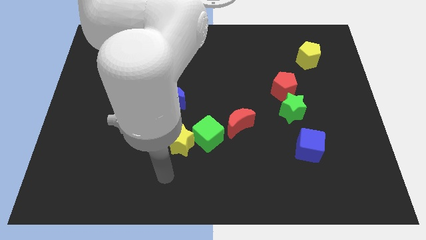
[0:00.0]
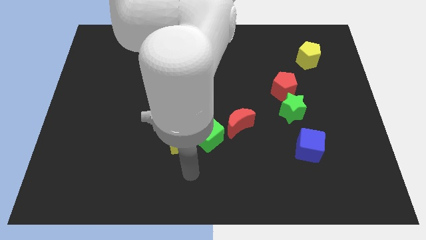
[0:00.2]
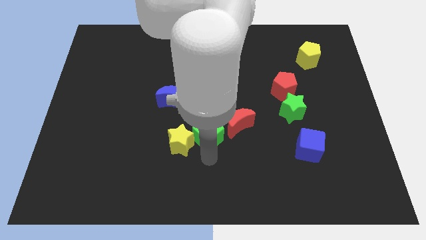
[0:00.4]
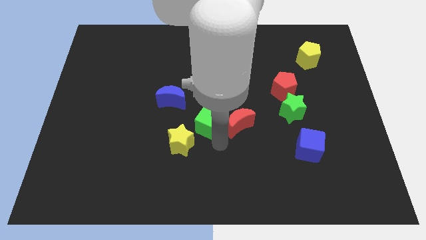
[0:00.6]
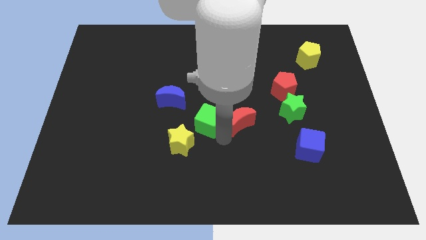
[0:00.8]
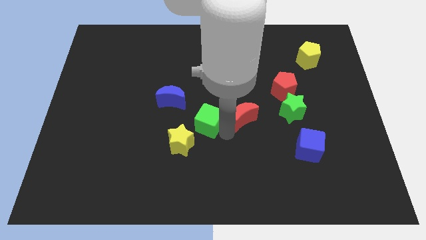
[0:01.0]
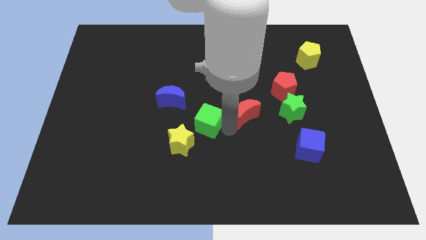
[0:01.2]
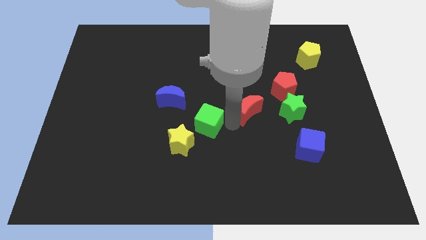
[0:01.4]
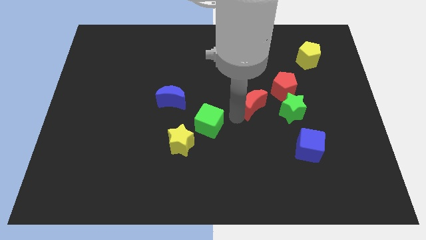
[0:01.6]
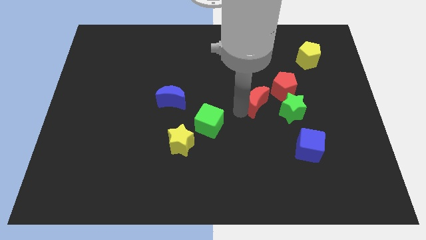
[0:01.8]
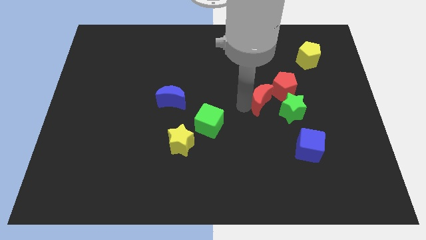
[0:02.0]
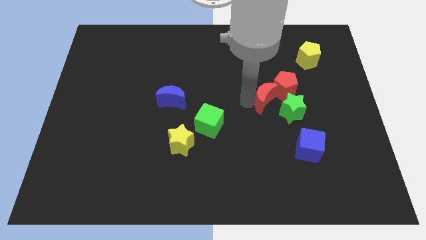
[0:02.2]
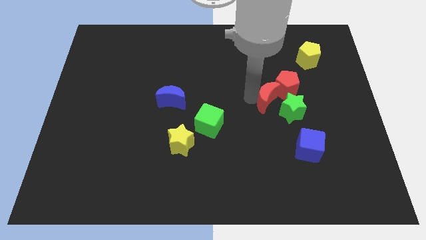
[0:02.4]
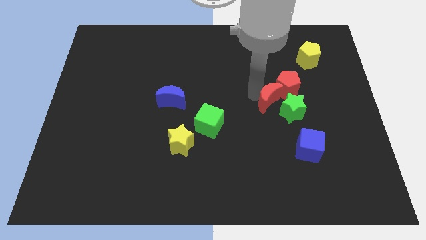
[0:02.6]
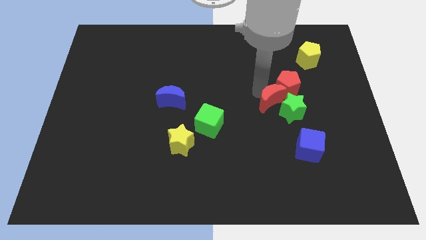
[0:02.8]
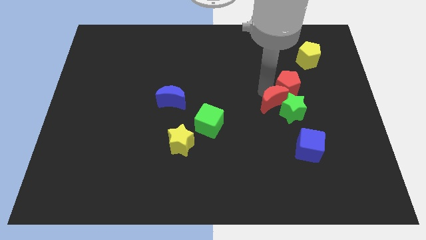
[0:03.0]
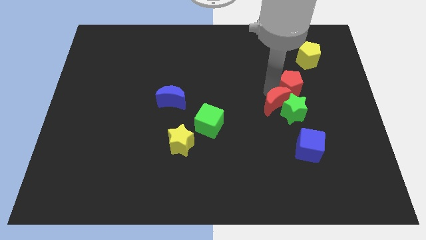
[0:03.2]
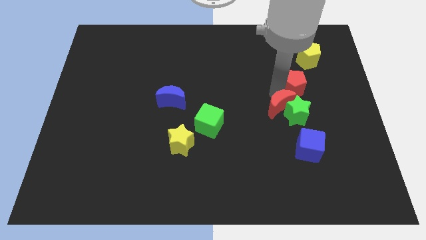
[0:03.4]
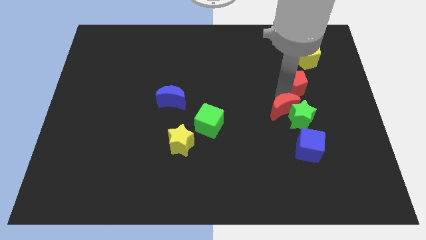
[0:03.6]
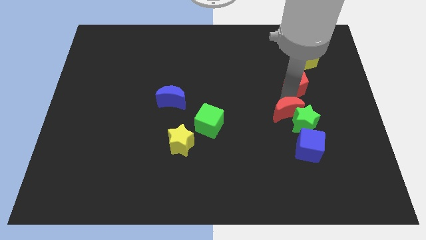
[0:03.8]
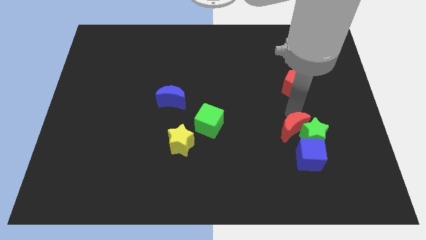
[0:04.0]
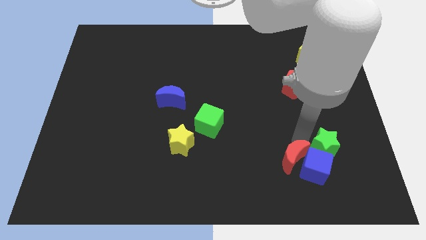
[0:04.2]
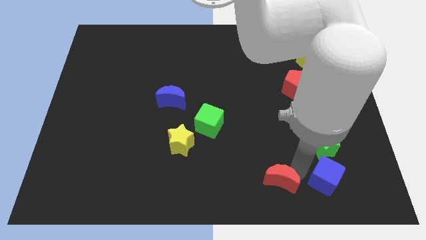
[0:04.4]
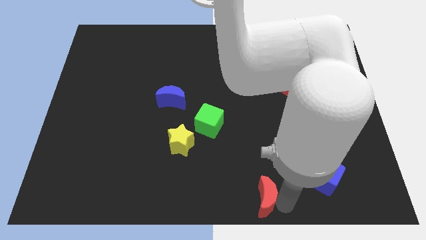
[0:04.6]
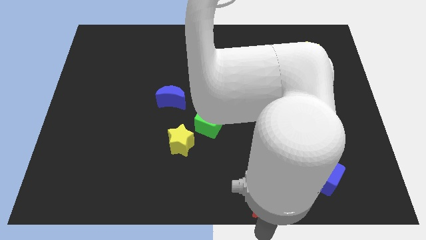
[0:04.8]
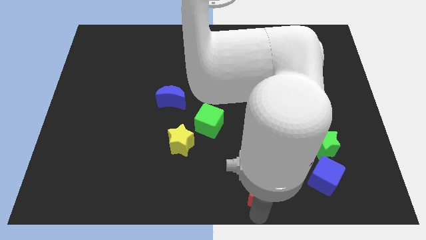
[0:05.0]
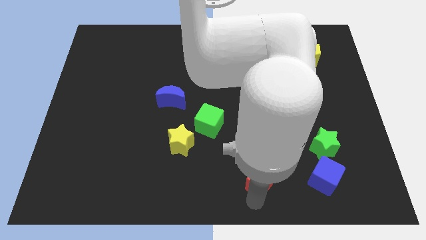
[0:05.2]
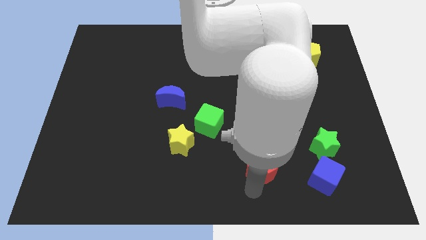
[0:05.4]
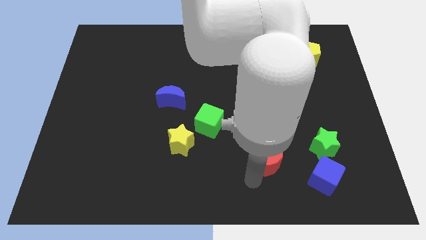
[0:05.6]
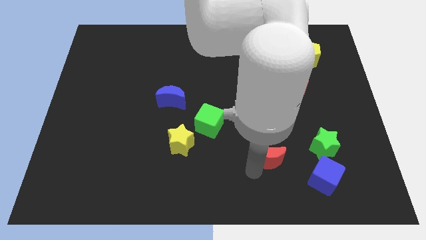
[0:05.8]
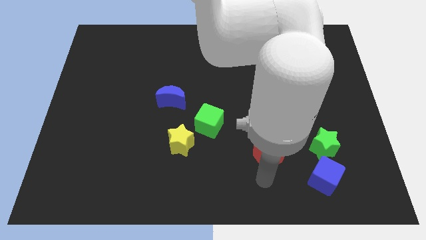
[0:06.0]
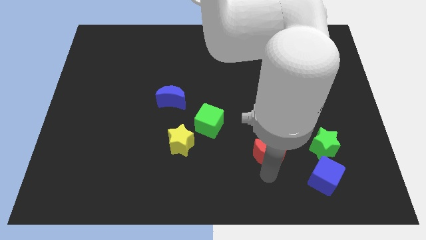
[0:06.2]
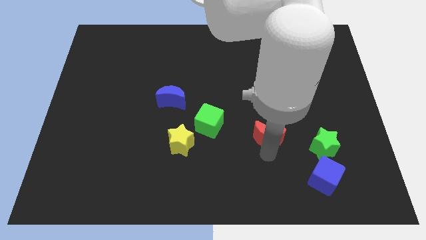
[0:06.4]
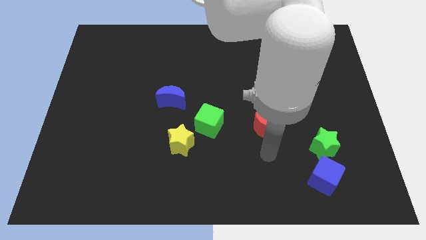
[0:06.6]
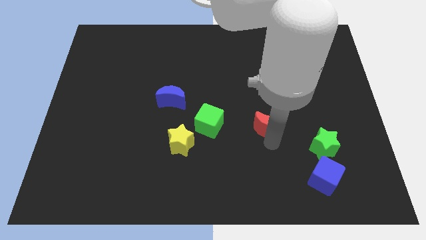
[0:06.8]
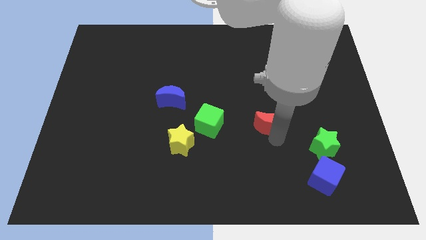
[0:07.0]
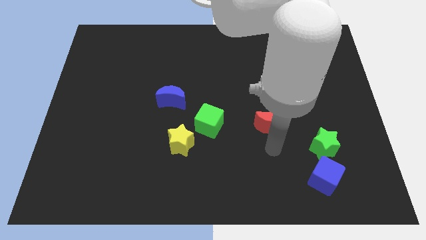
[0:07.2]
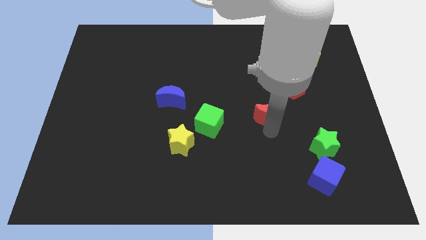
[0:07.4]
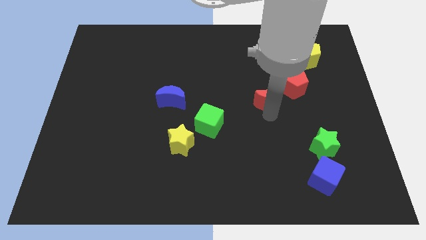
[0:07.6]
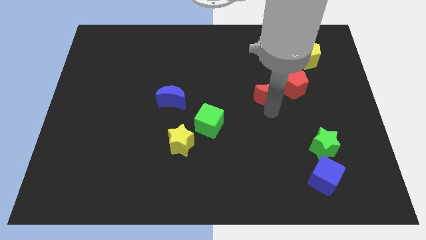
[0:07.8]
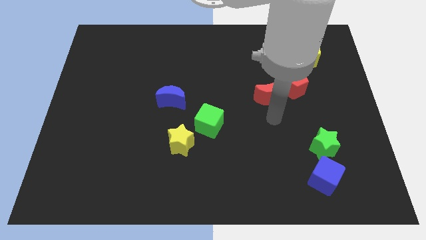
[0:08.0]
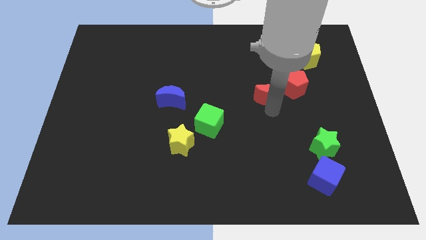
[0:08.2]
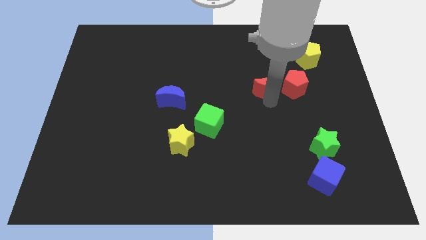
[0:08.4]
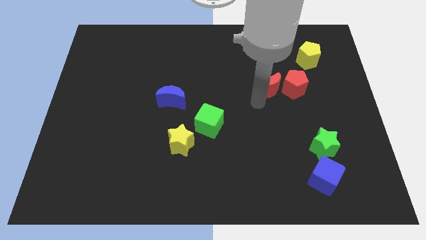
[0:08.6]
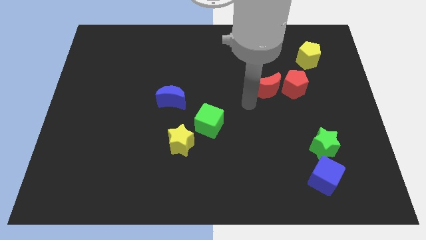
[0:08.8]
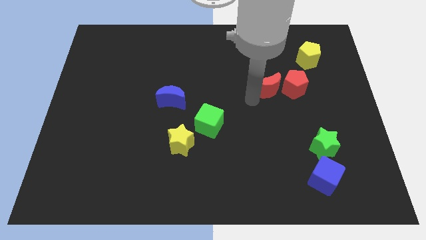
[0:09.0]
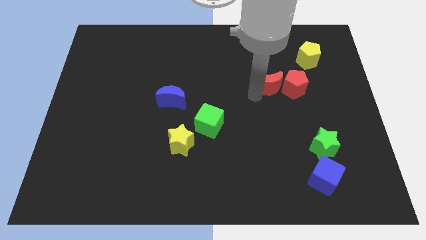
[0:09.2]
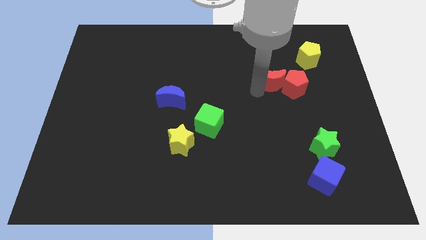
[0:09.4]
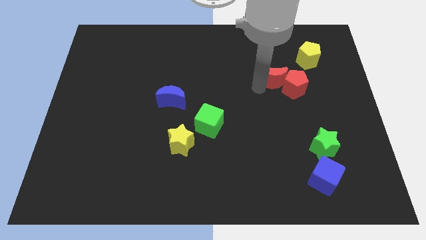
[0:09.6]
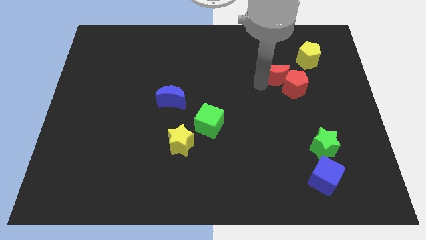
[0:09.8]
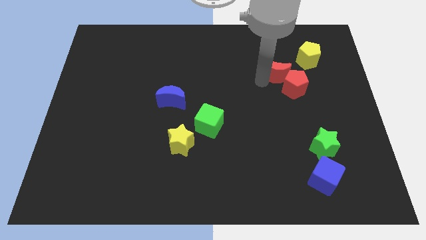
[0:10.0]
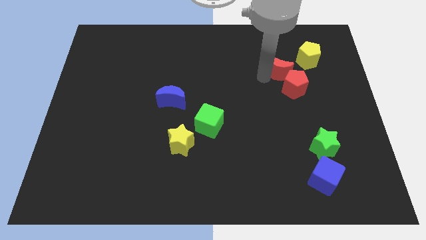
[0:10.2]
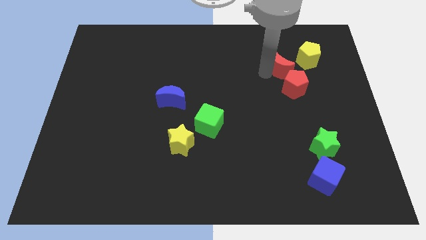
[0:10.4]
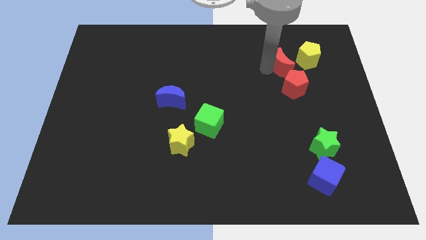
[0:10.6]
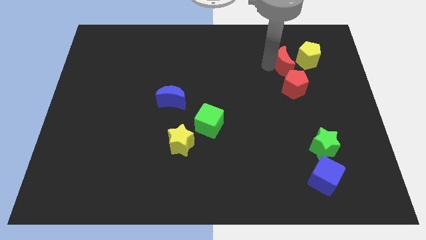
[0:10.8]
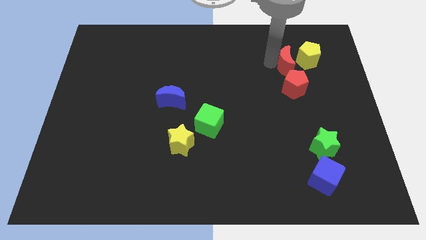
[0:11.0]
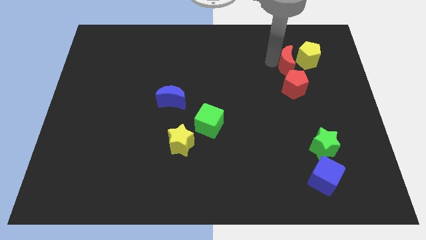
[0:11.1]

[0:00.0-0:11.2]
move the red moon close to the yellow pentagon
